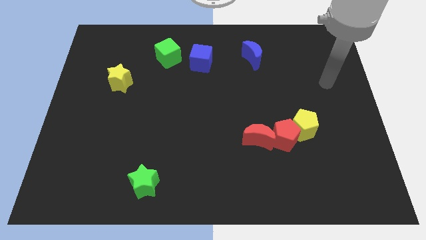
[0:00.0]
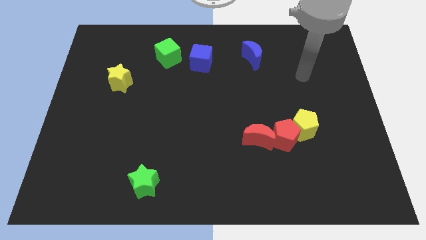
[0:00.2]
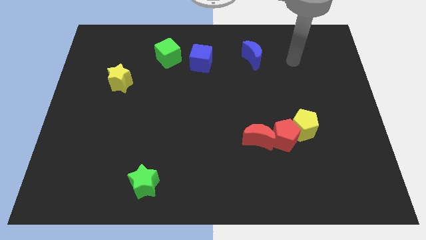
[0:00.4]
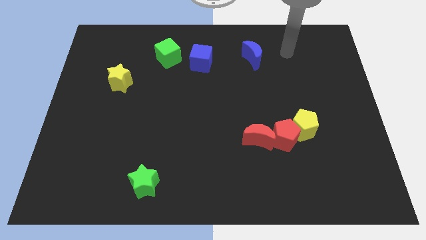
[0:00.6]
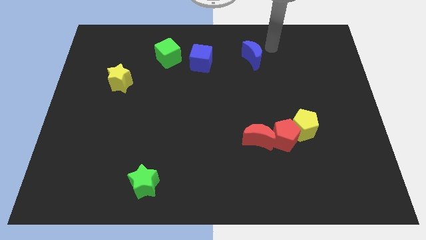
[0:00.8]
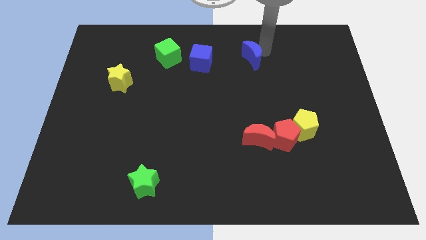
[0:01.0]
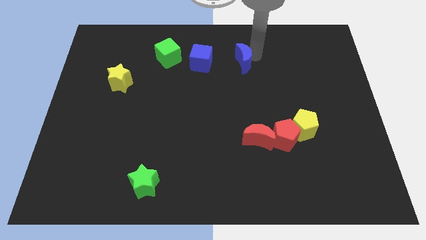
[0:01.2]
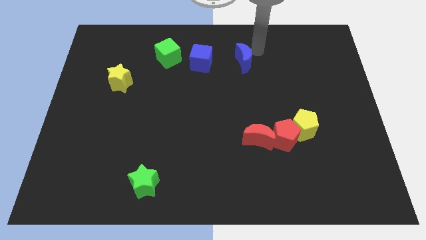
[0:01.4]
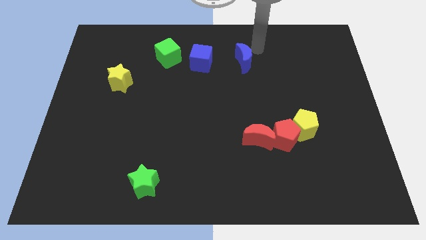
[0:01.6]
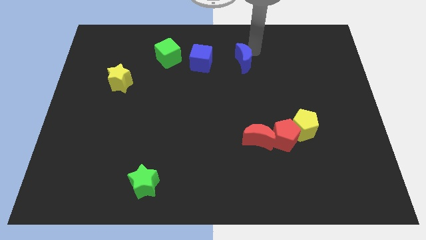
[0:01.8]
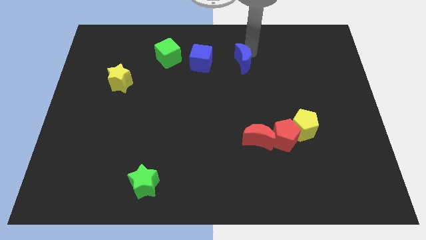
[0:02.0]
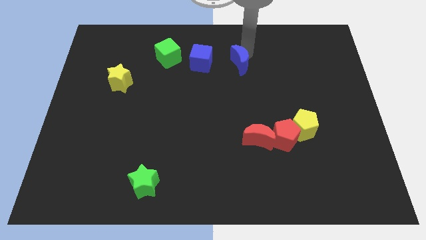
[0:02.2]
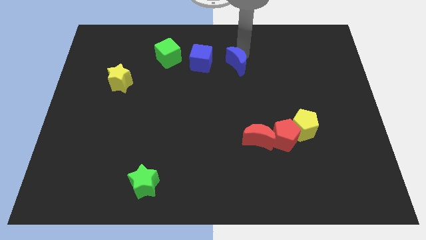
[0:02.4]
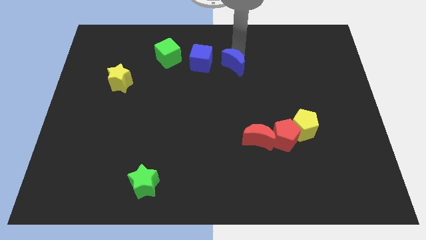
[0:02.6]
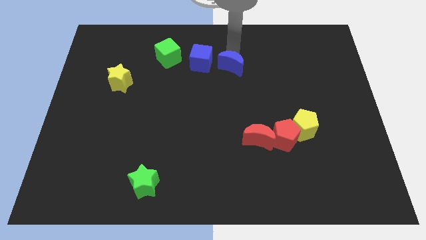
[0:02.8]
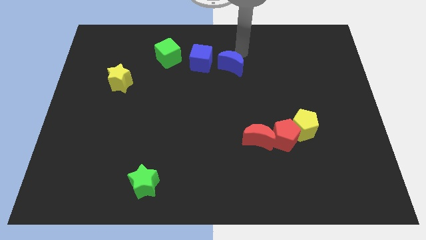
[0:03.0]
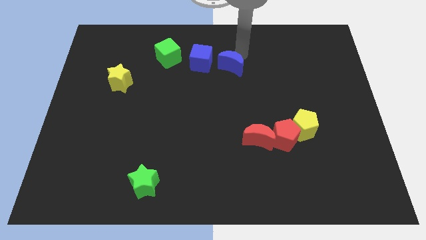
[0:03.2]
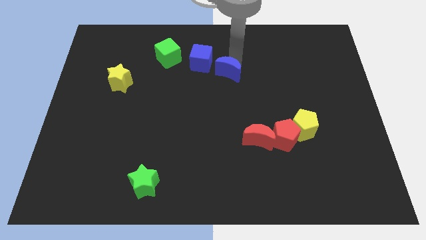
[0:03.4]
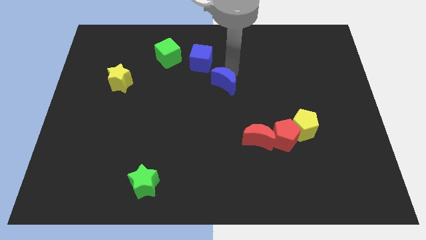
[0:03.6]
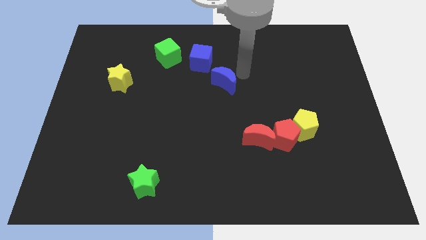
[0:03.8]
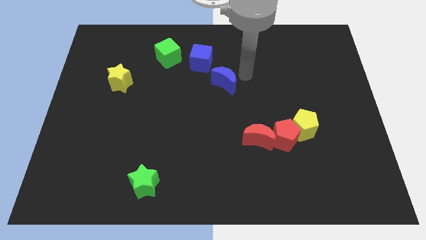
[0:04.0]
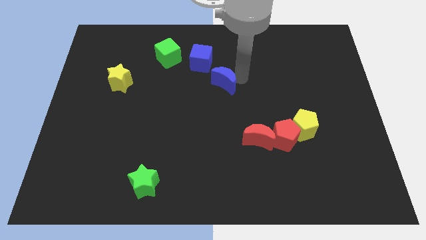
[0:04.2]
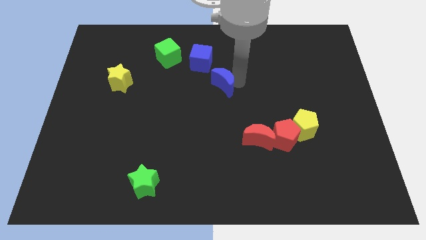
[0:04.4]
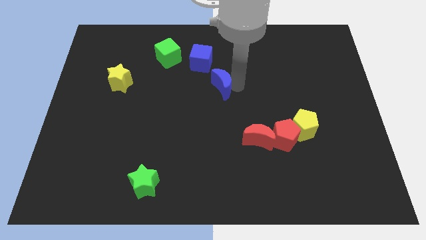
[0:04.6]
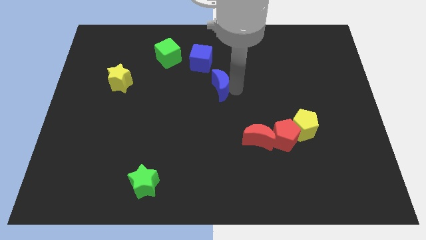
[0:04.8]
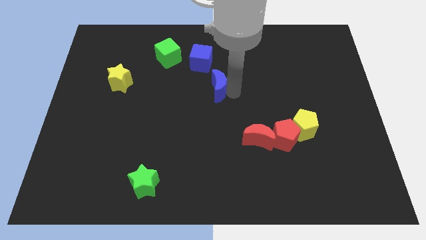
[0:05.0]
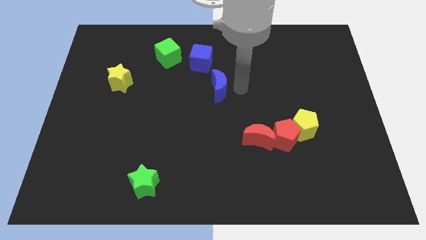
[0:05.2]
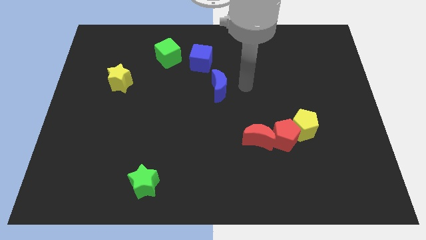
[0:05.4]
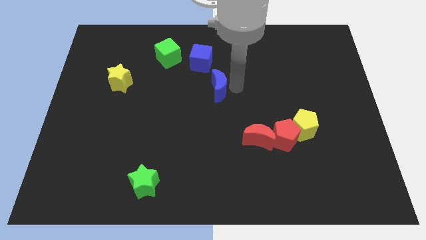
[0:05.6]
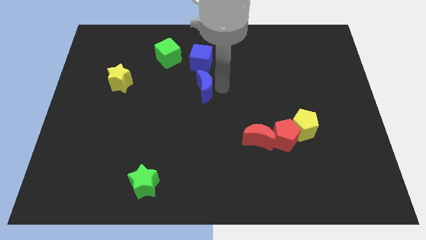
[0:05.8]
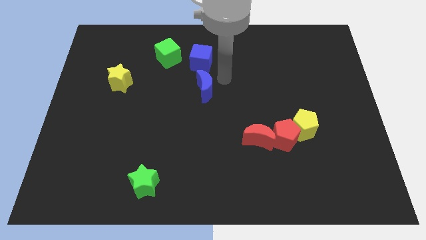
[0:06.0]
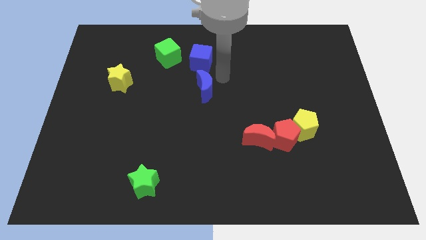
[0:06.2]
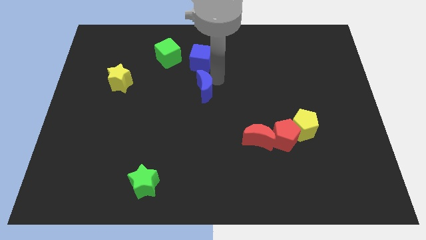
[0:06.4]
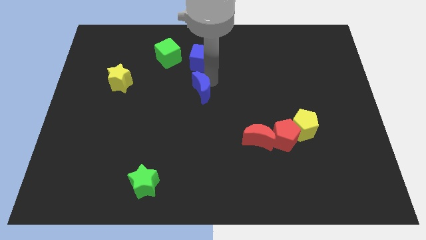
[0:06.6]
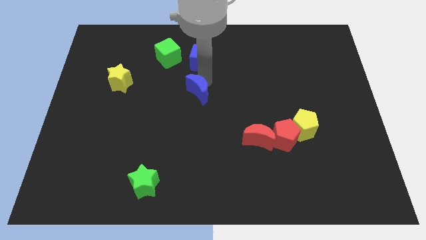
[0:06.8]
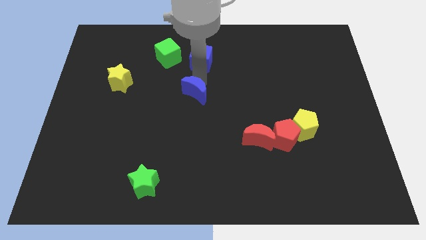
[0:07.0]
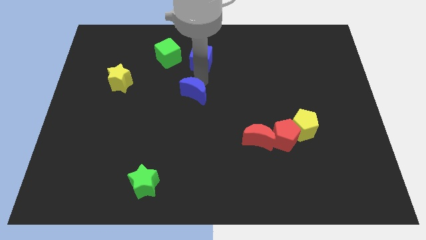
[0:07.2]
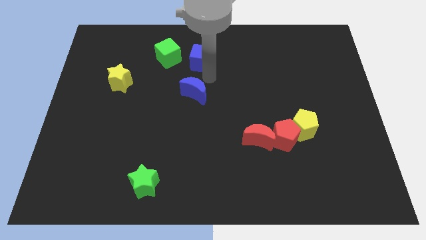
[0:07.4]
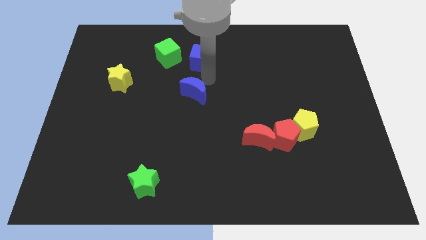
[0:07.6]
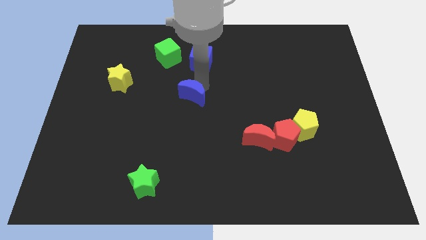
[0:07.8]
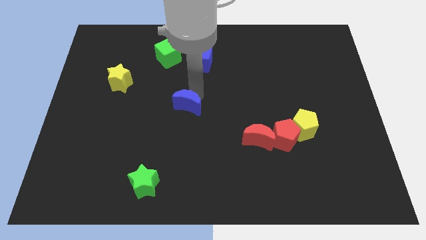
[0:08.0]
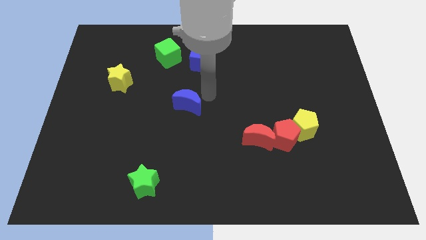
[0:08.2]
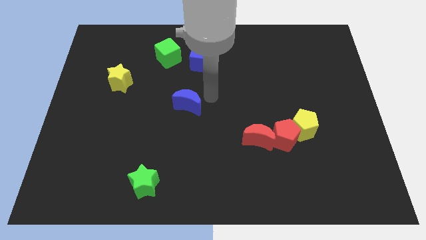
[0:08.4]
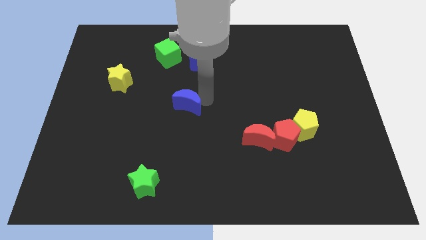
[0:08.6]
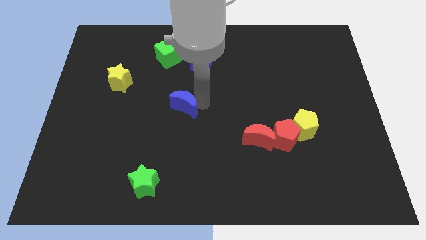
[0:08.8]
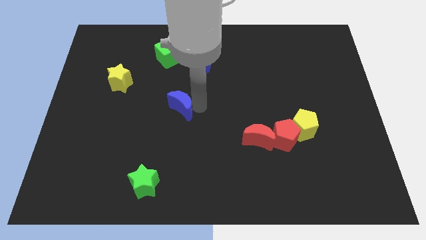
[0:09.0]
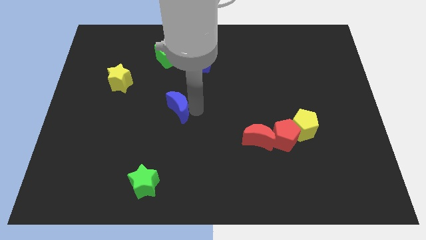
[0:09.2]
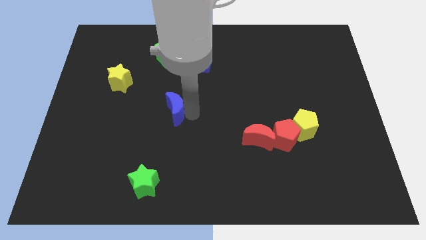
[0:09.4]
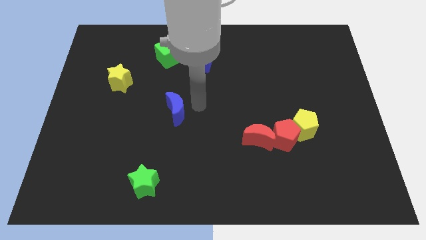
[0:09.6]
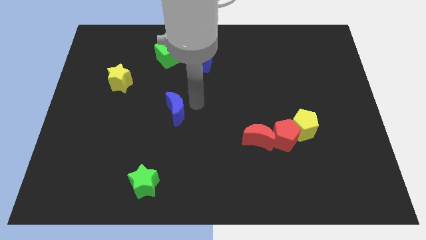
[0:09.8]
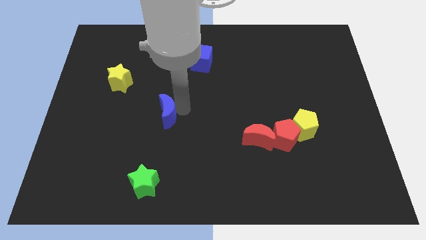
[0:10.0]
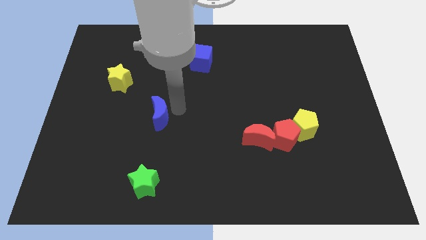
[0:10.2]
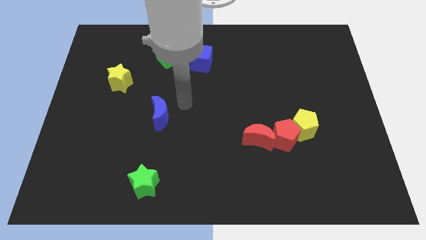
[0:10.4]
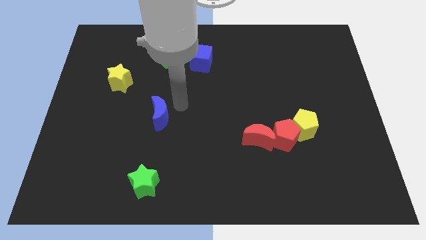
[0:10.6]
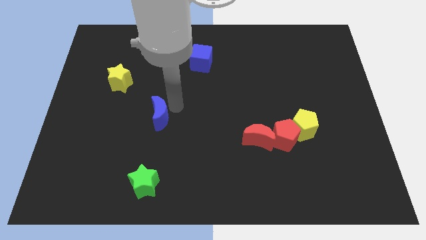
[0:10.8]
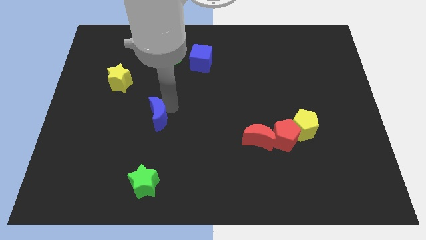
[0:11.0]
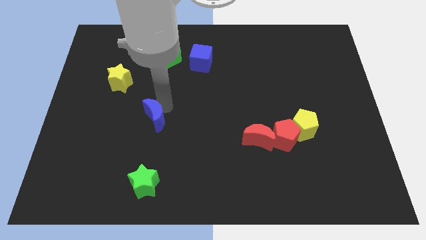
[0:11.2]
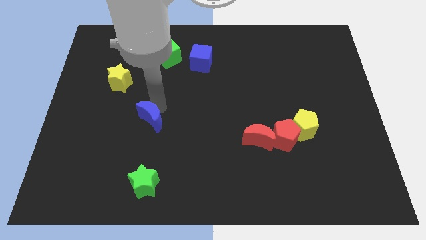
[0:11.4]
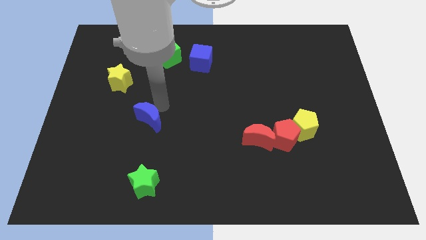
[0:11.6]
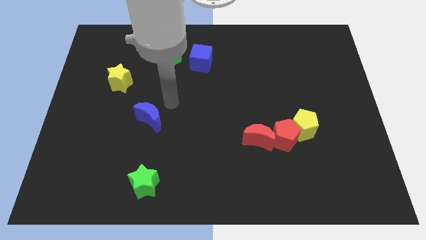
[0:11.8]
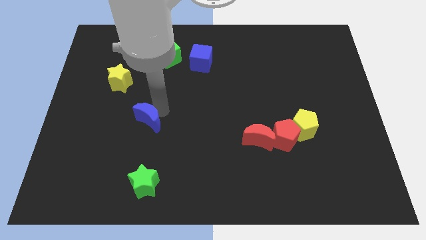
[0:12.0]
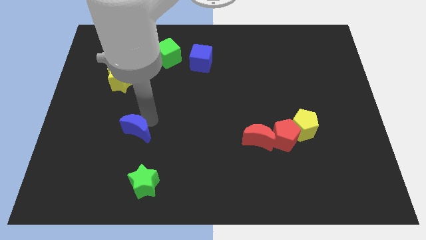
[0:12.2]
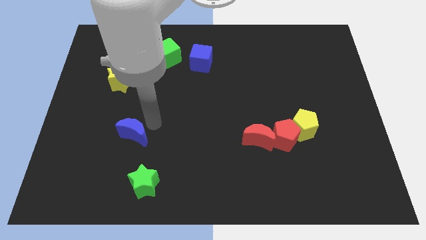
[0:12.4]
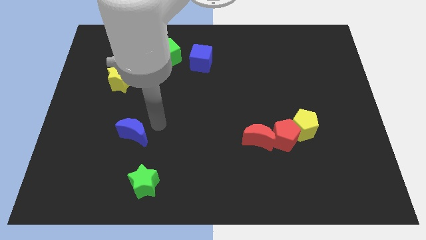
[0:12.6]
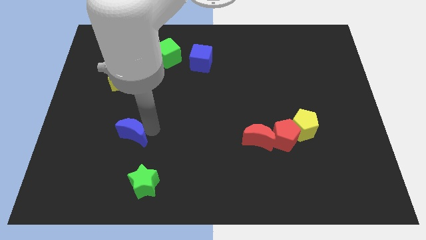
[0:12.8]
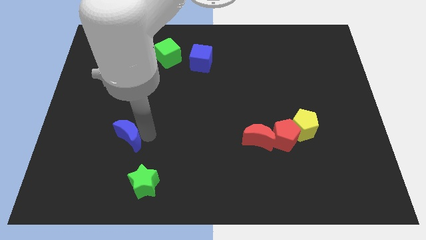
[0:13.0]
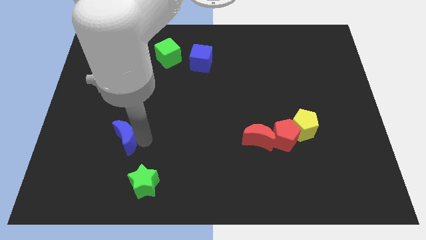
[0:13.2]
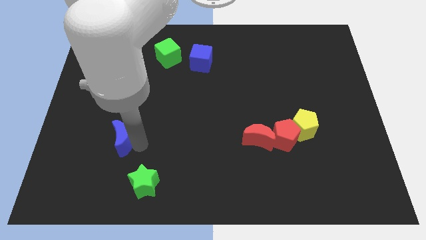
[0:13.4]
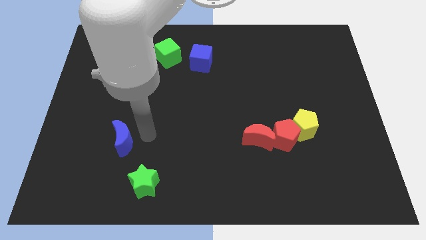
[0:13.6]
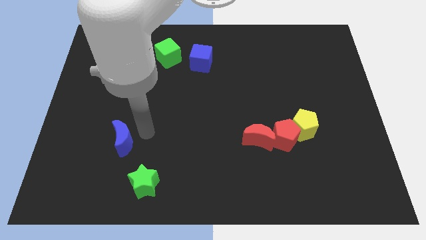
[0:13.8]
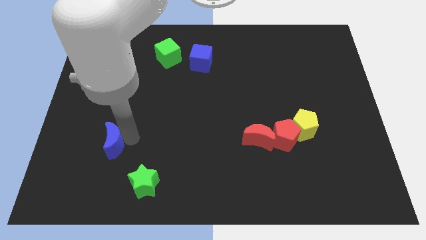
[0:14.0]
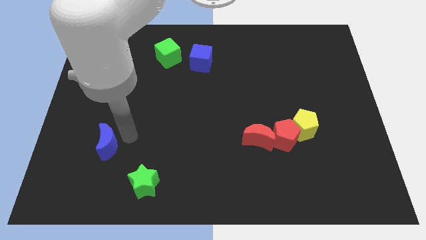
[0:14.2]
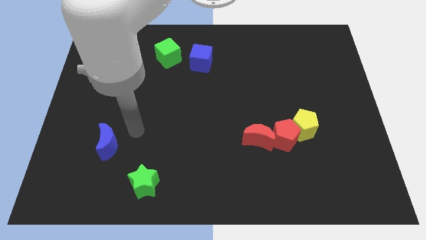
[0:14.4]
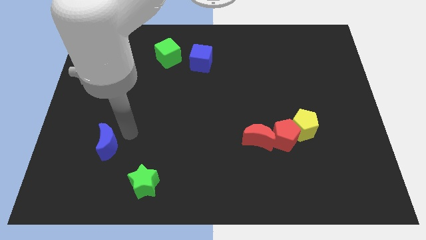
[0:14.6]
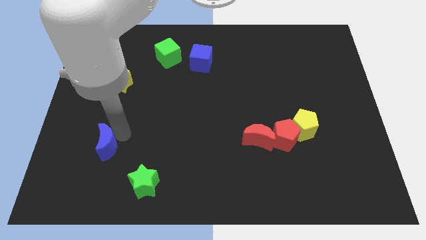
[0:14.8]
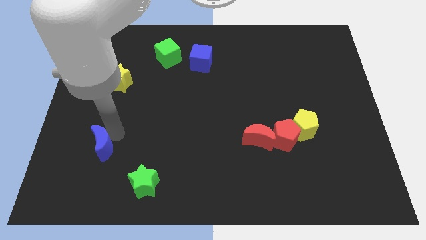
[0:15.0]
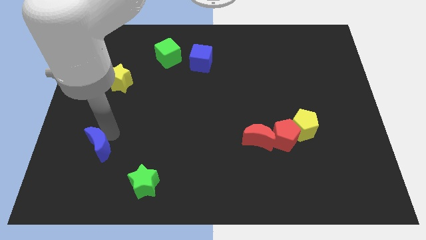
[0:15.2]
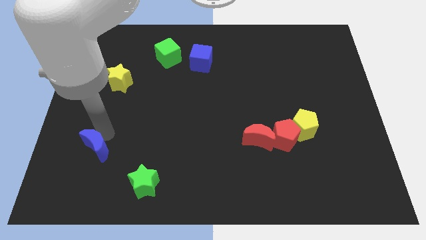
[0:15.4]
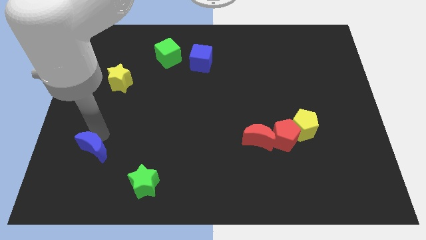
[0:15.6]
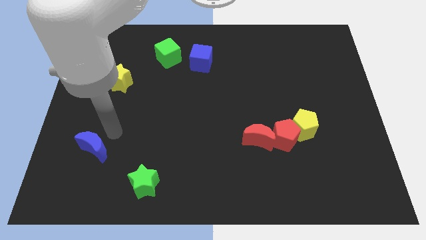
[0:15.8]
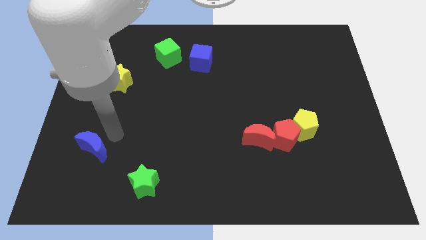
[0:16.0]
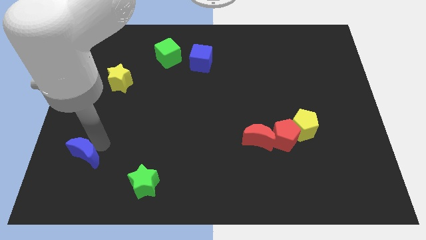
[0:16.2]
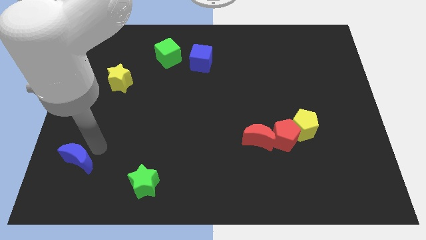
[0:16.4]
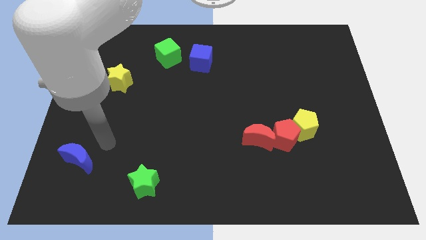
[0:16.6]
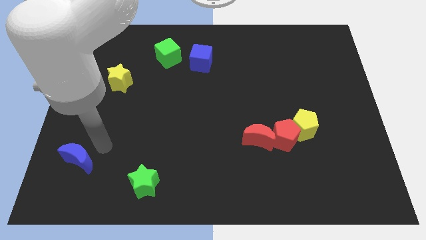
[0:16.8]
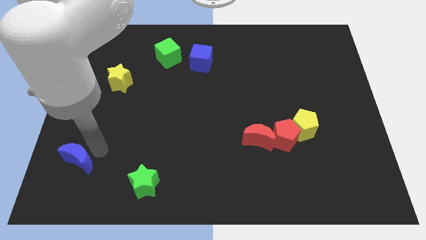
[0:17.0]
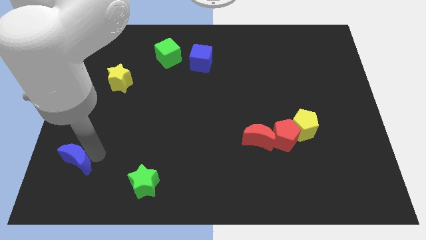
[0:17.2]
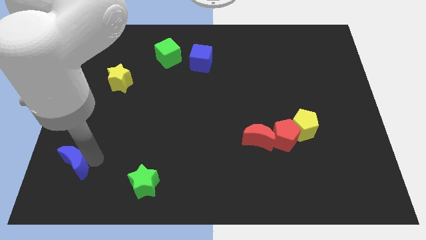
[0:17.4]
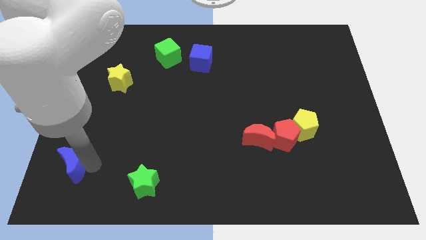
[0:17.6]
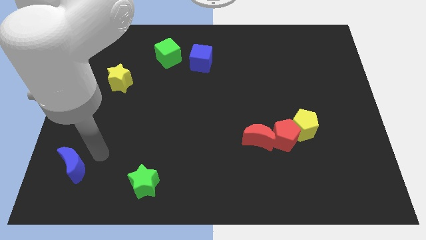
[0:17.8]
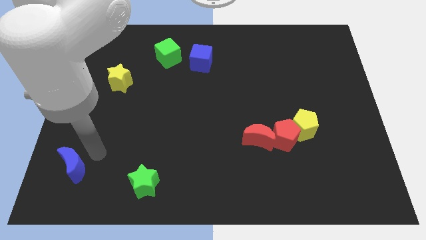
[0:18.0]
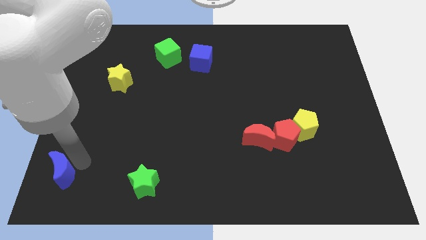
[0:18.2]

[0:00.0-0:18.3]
slide the blue moon to the bottom left corner
